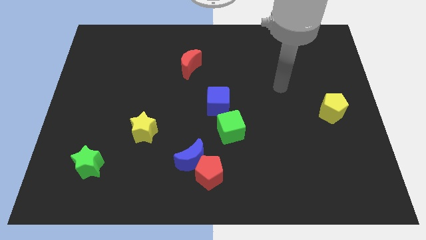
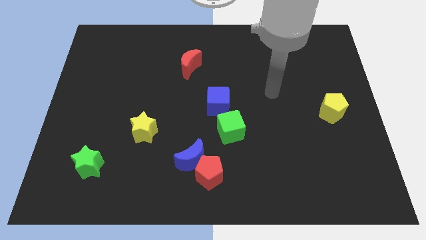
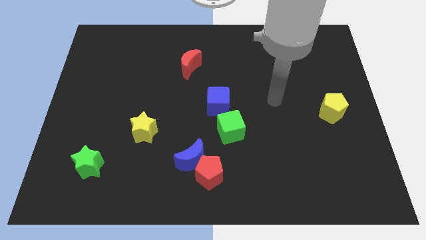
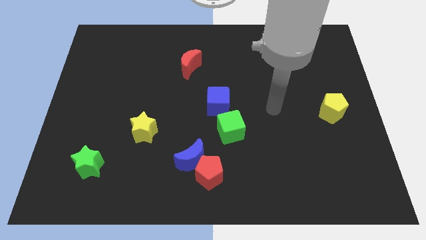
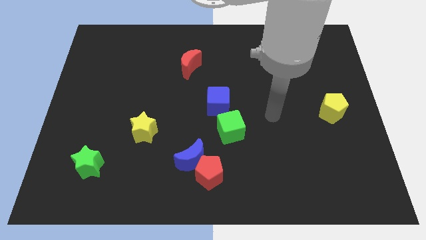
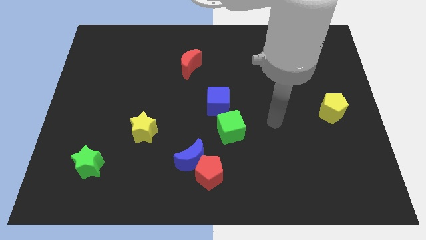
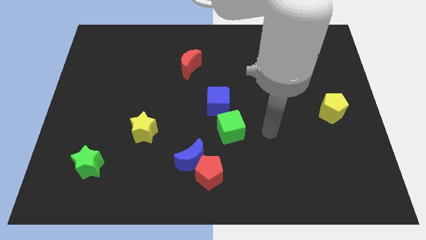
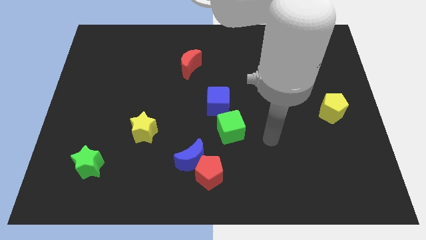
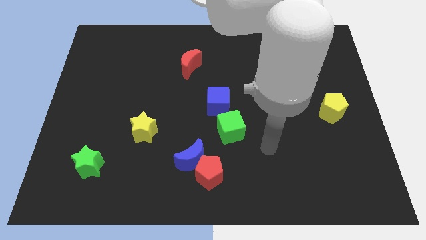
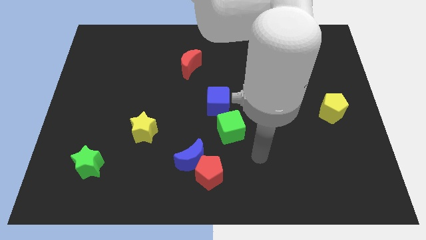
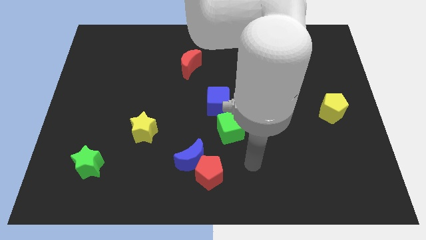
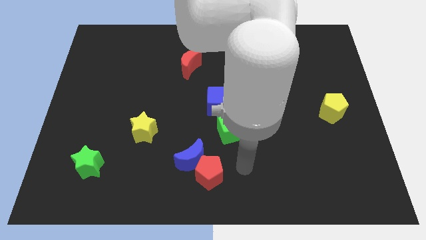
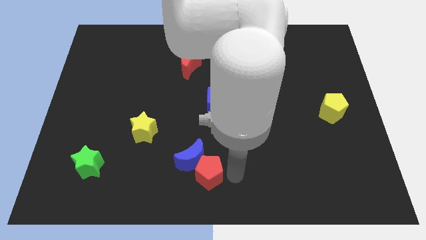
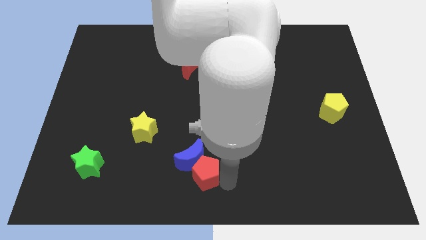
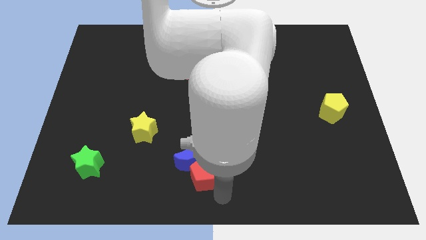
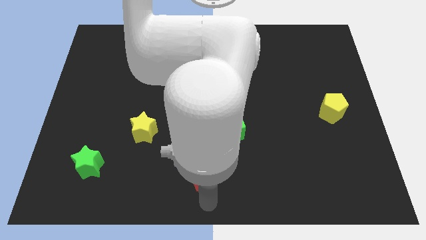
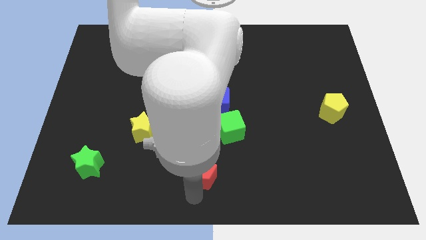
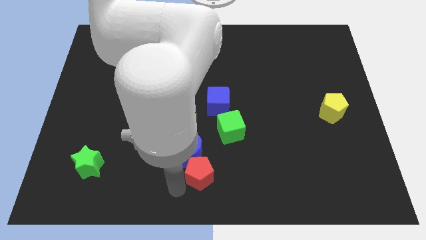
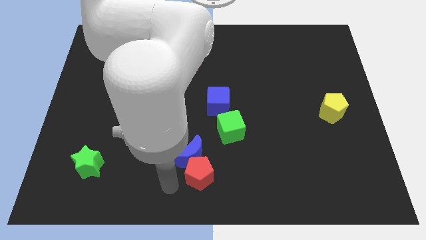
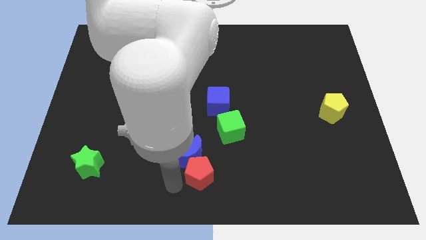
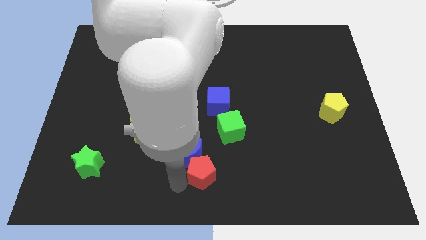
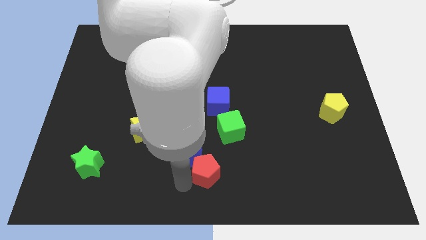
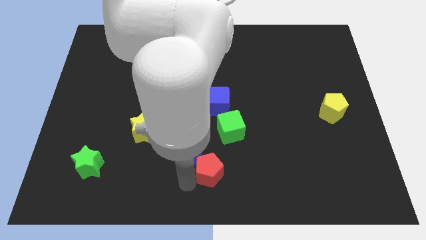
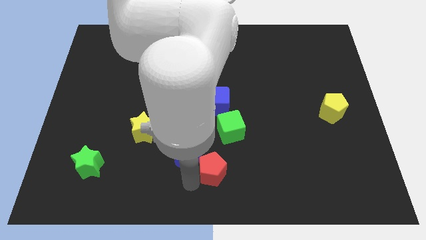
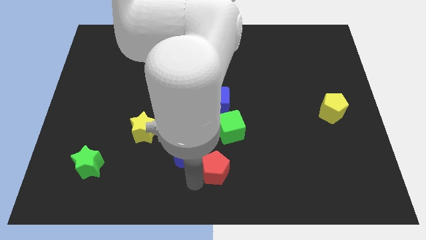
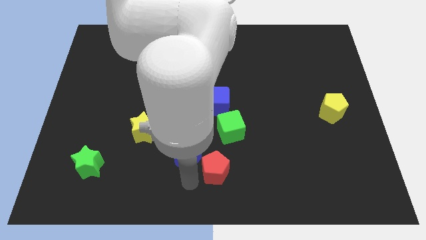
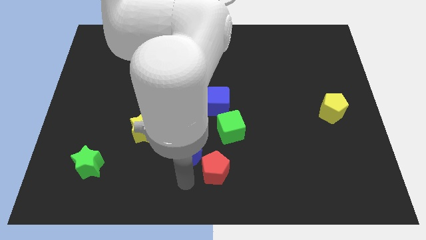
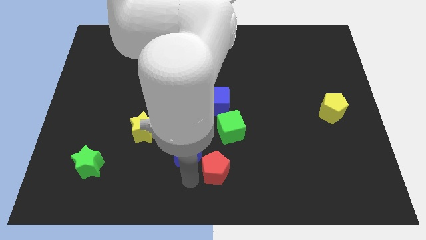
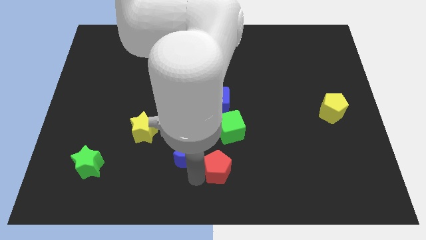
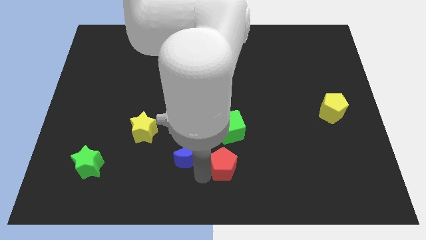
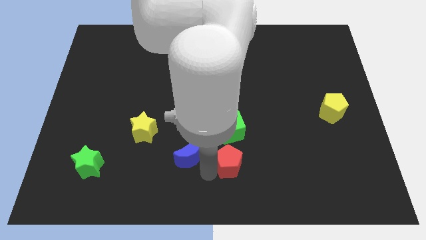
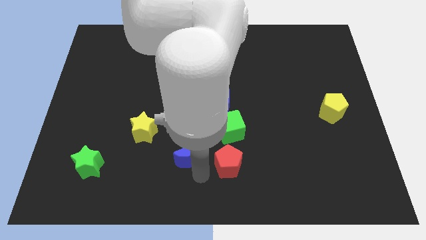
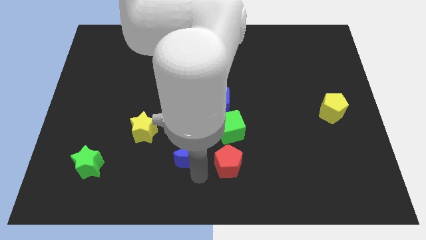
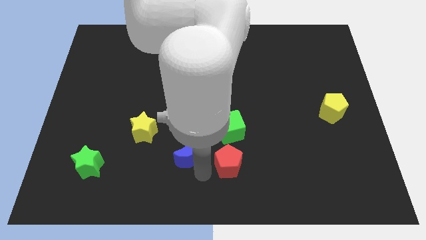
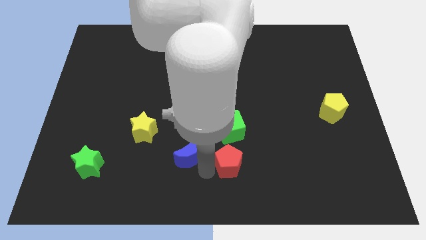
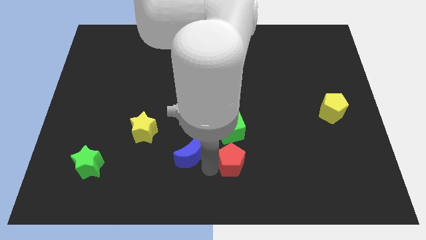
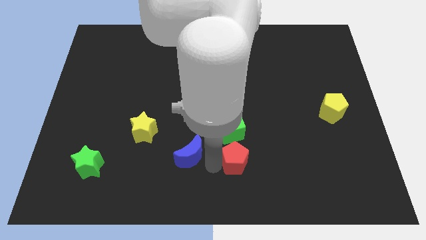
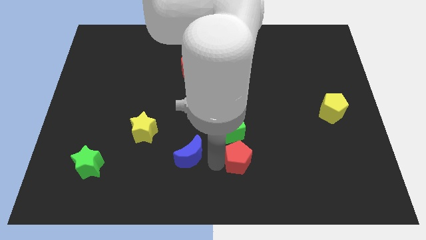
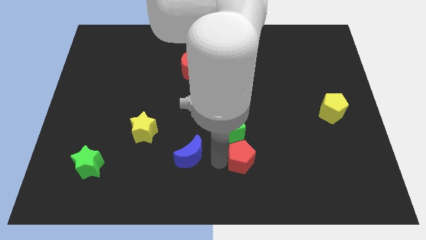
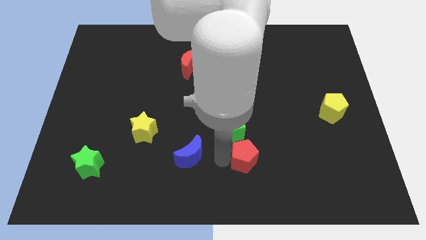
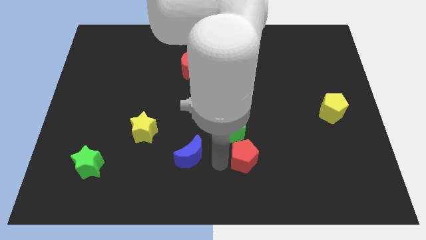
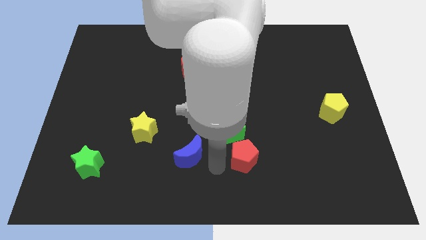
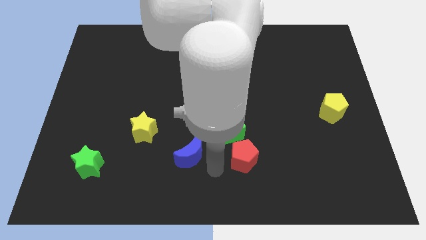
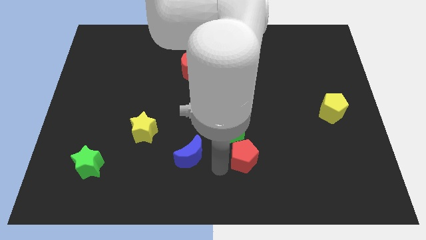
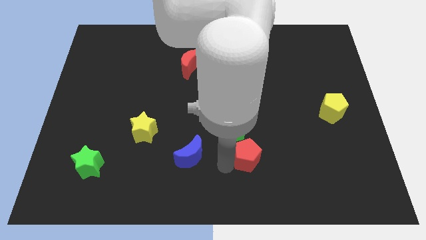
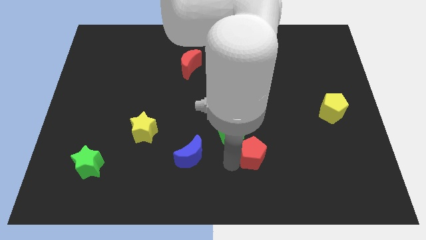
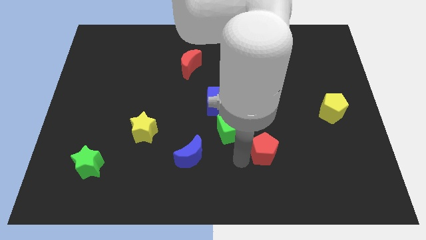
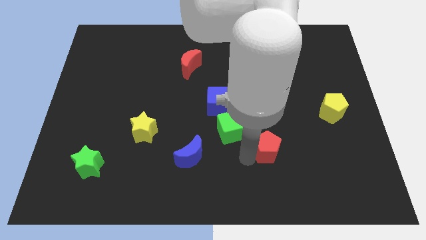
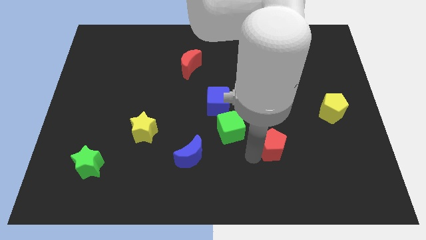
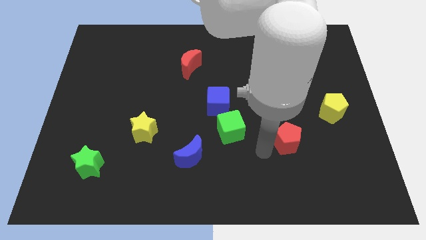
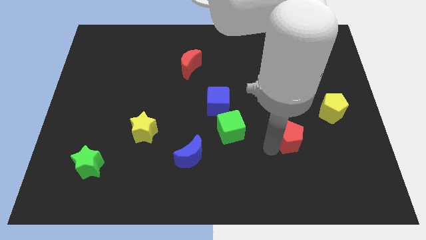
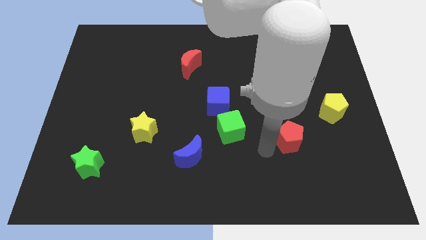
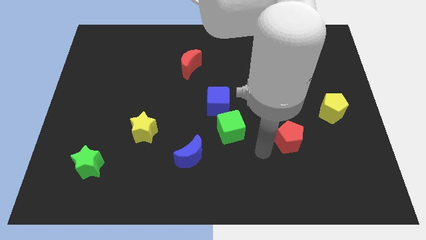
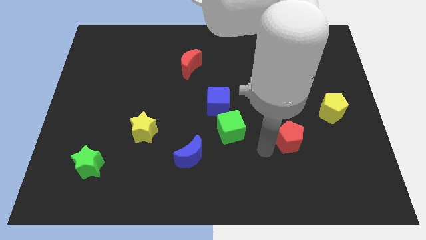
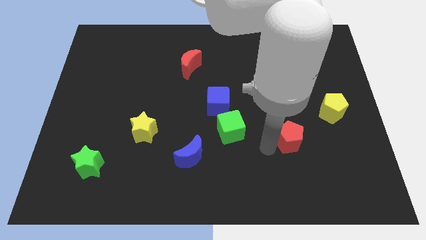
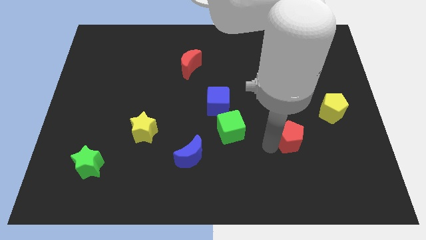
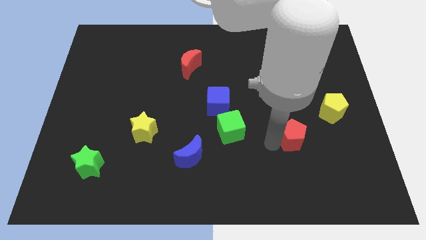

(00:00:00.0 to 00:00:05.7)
move the red pentagon diagonally down and to the left of the yellow pentagon

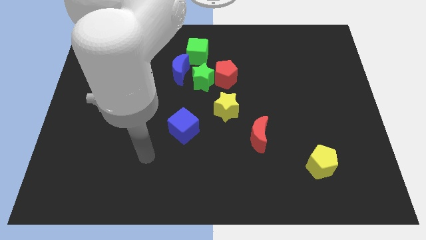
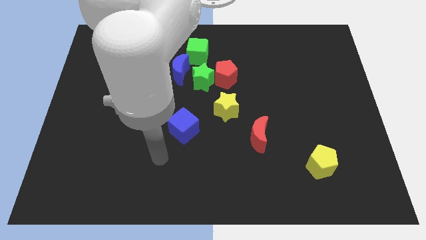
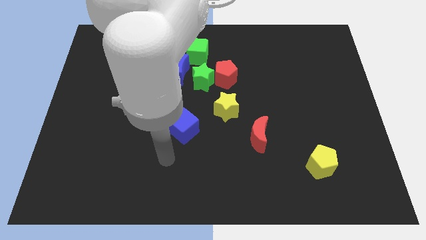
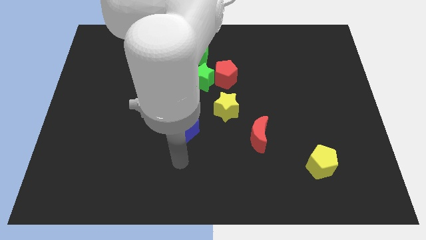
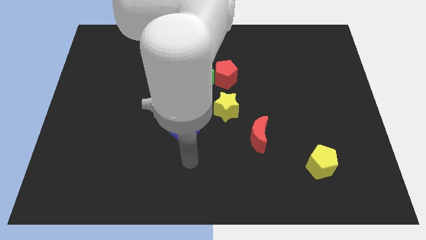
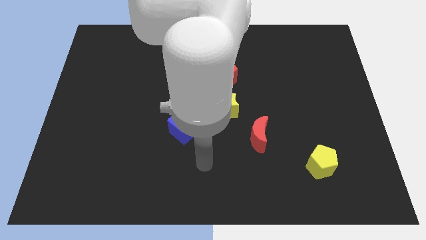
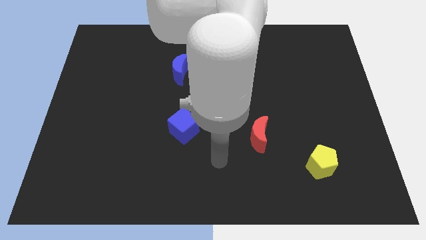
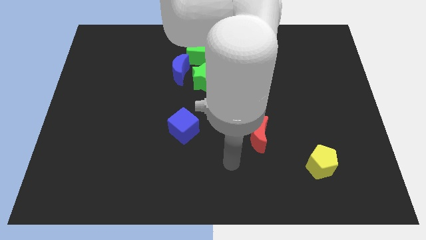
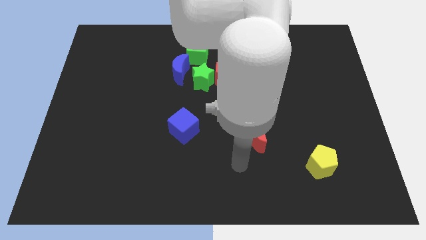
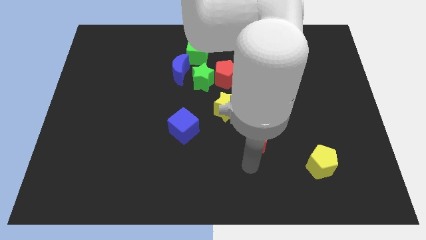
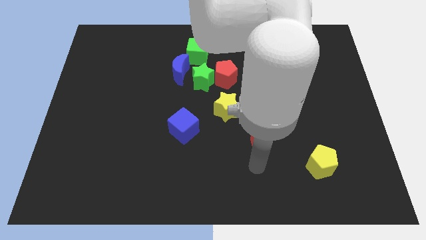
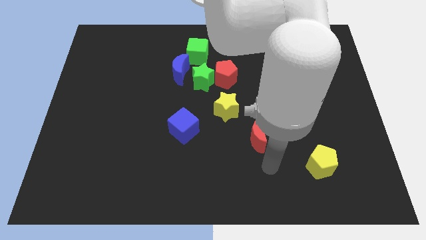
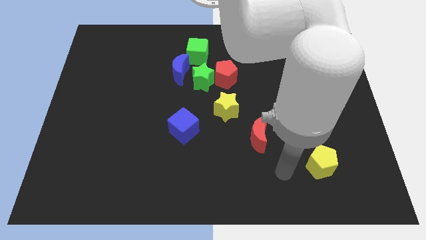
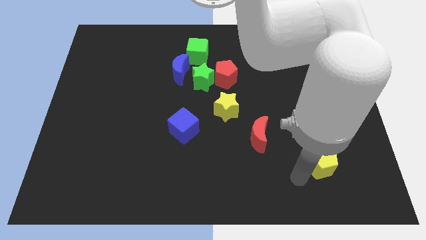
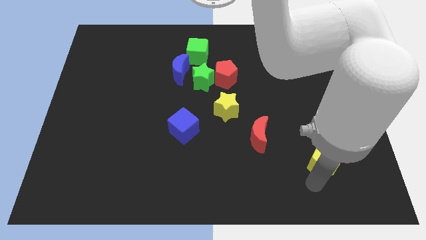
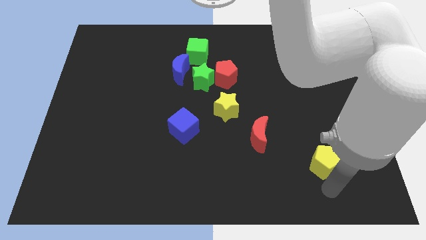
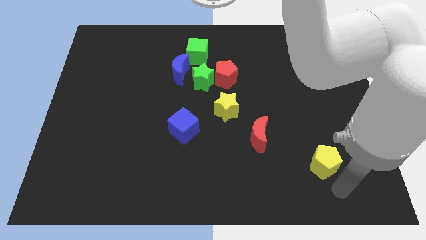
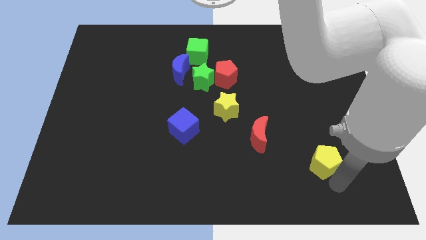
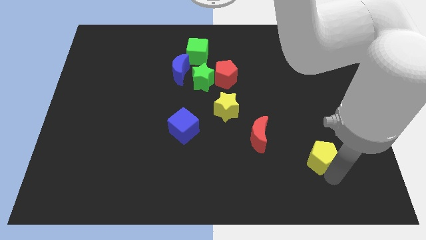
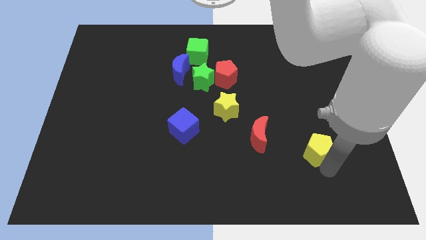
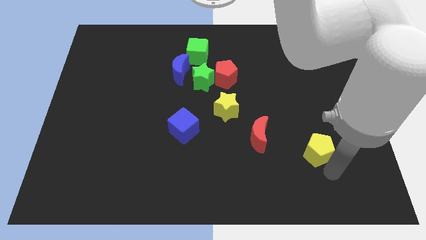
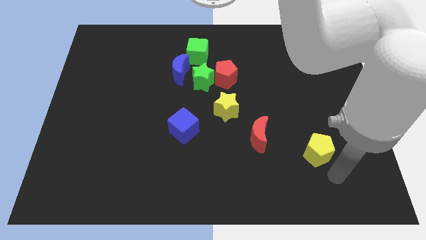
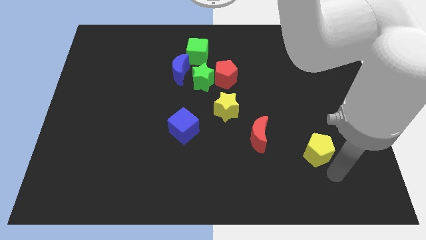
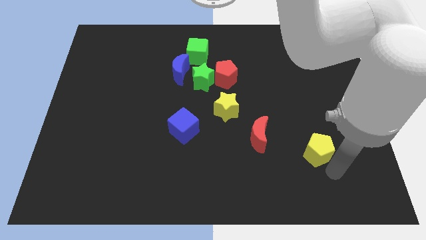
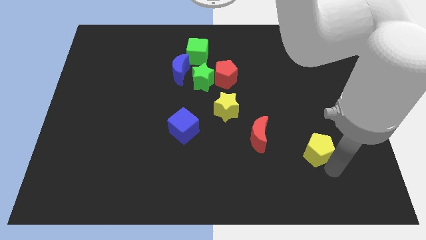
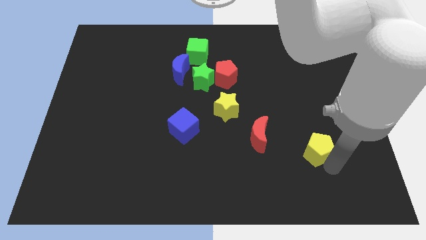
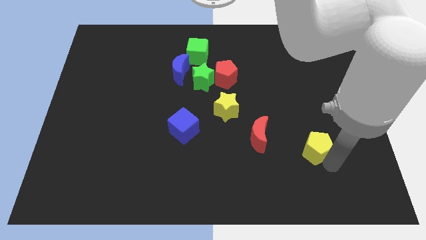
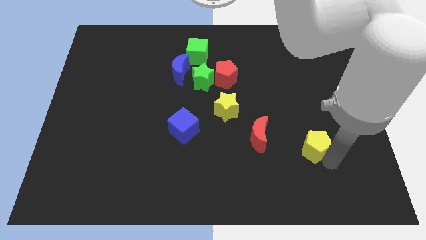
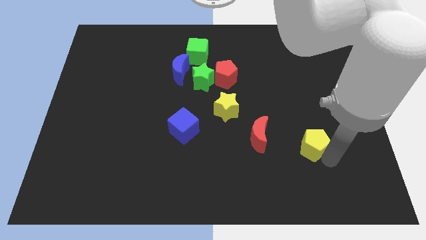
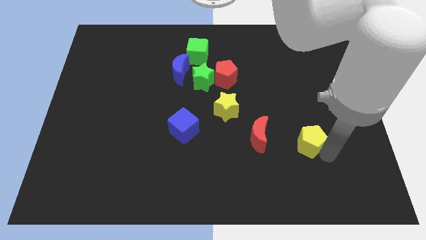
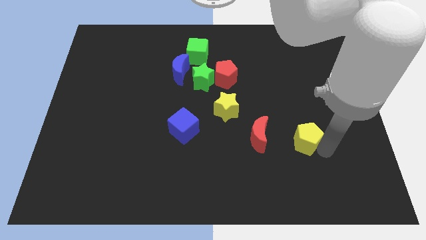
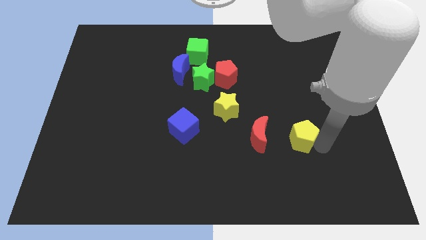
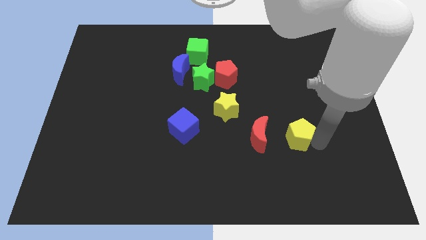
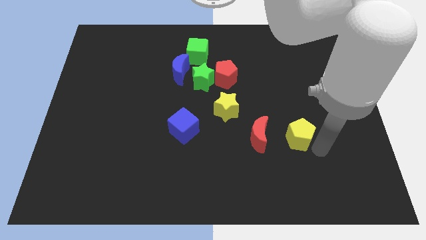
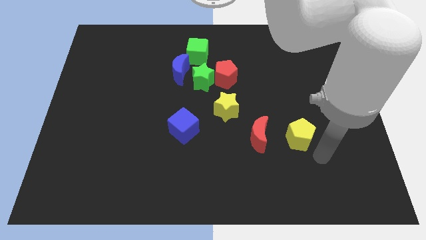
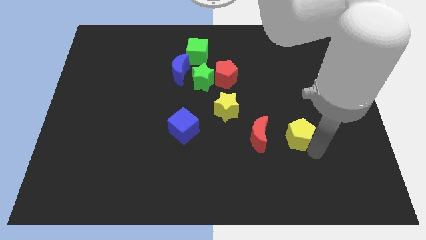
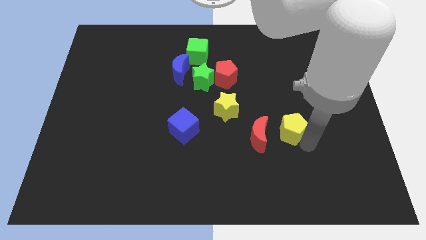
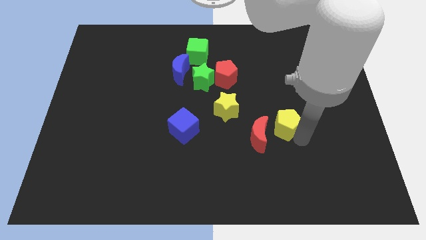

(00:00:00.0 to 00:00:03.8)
put the yellow pentagon to the right side of the yellow star
